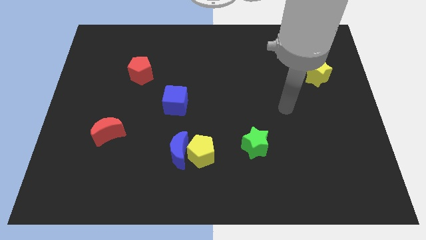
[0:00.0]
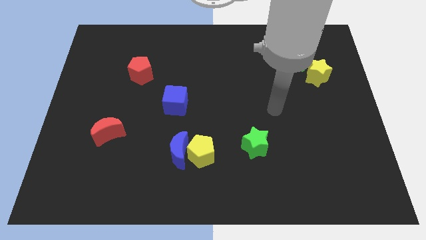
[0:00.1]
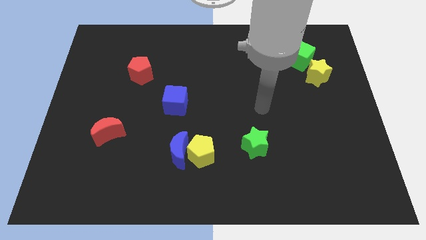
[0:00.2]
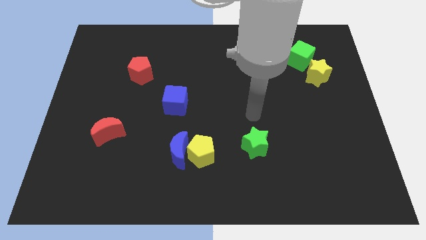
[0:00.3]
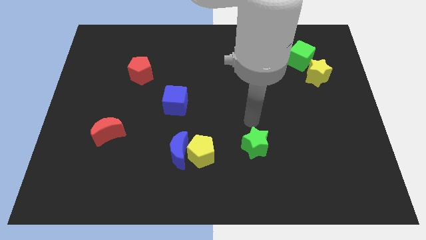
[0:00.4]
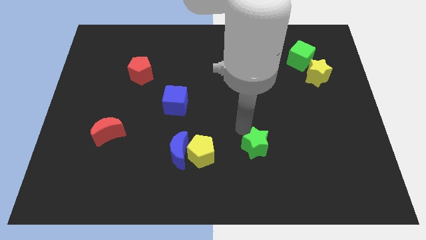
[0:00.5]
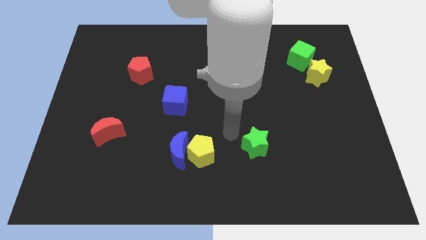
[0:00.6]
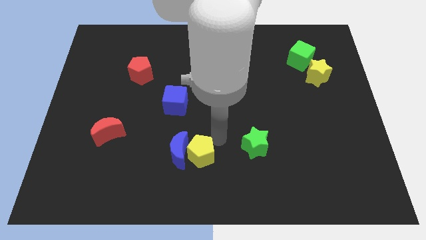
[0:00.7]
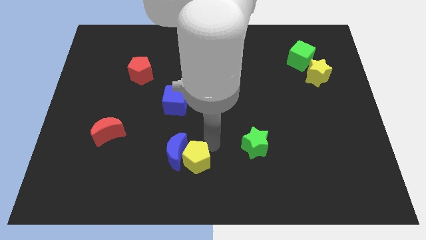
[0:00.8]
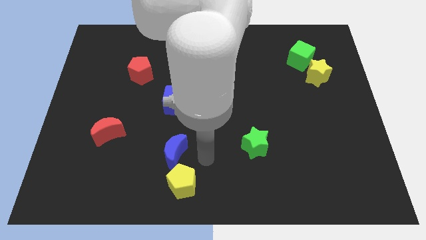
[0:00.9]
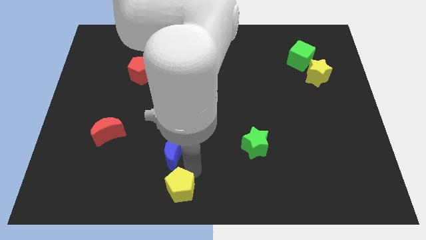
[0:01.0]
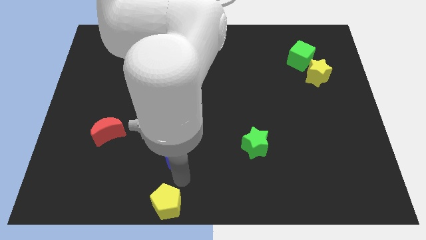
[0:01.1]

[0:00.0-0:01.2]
move the blue moon away from the yellow pentagon

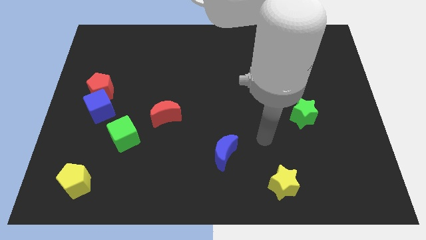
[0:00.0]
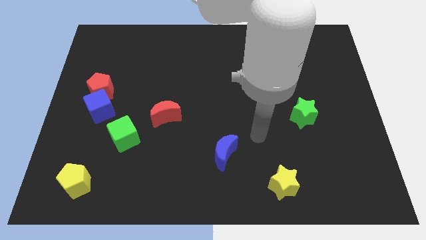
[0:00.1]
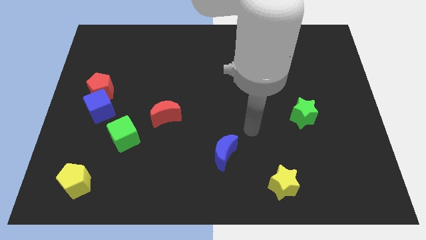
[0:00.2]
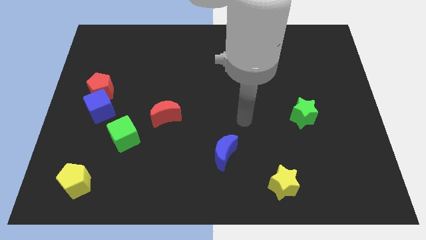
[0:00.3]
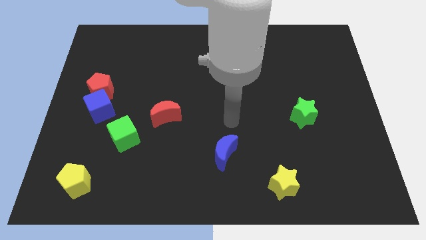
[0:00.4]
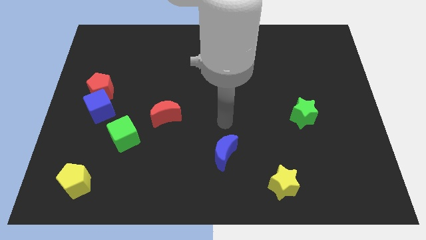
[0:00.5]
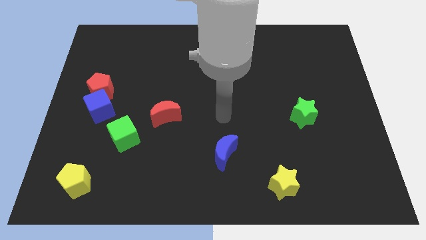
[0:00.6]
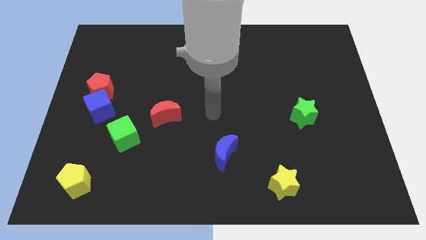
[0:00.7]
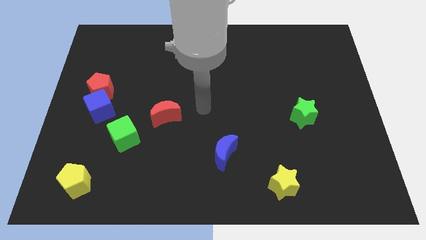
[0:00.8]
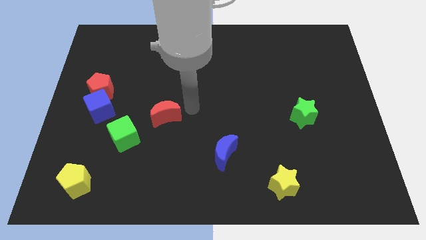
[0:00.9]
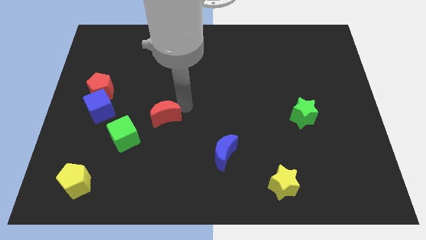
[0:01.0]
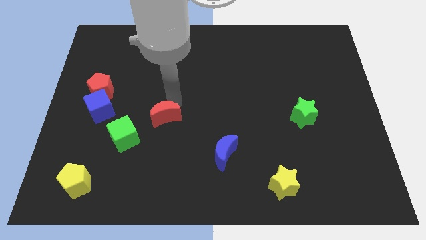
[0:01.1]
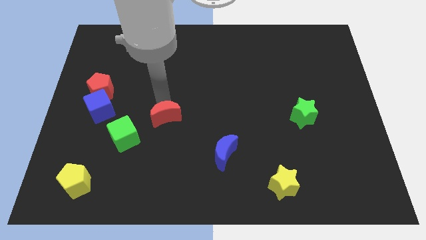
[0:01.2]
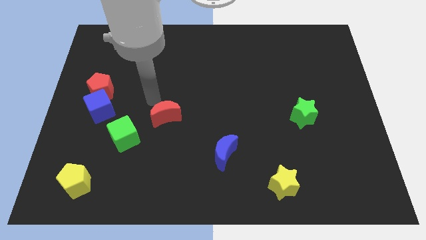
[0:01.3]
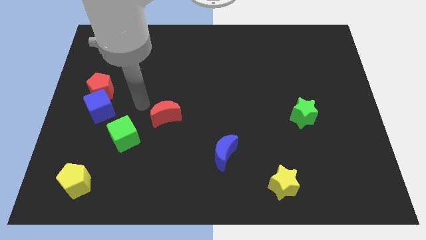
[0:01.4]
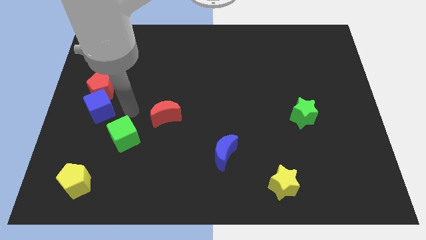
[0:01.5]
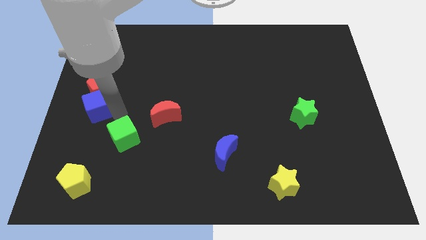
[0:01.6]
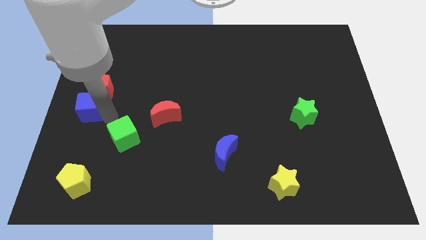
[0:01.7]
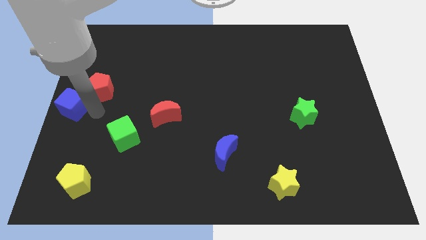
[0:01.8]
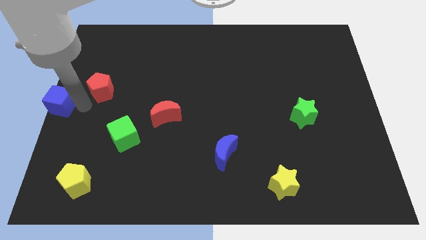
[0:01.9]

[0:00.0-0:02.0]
pull the red pentagon apart from the blue cube

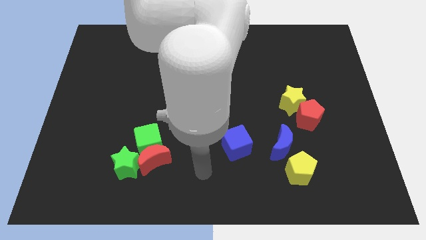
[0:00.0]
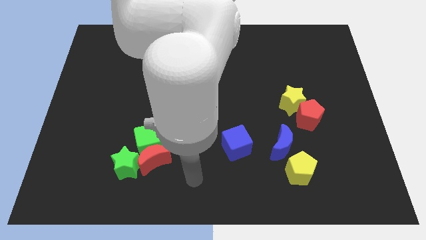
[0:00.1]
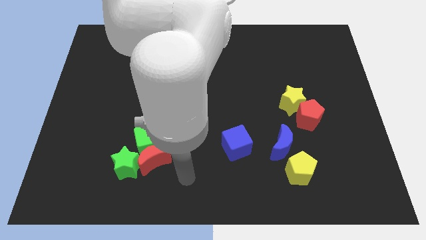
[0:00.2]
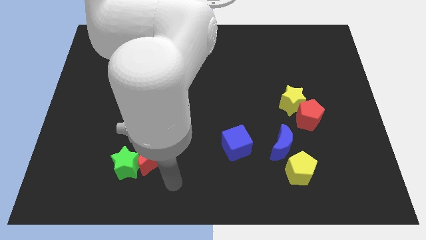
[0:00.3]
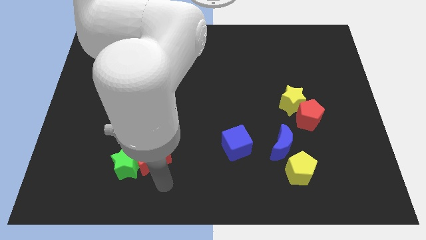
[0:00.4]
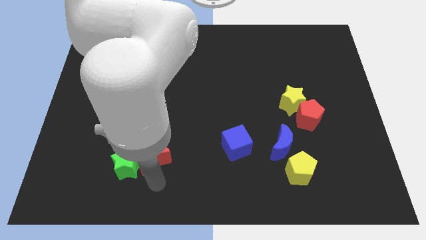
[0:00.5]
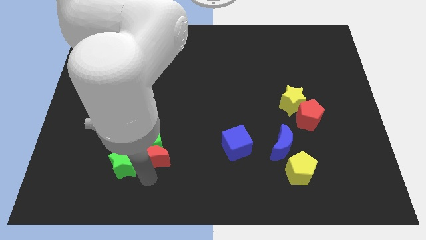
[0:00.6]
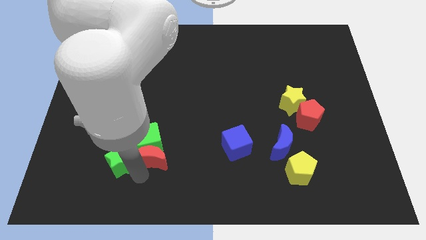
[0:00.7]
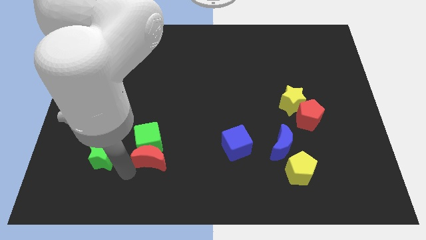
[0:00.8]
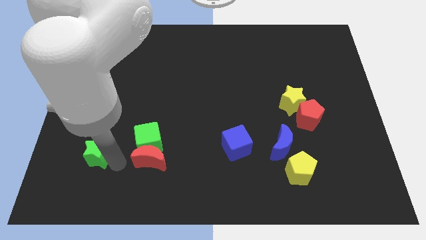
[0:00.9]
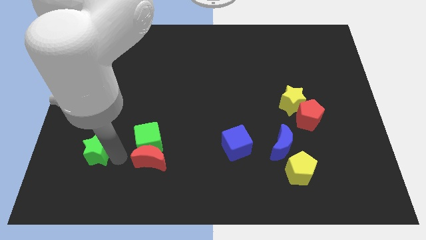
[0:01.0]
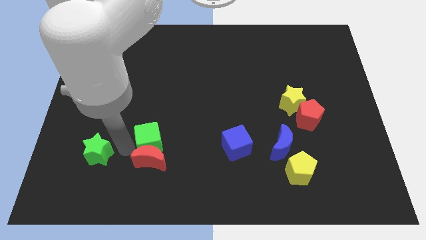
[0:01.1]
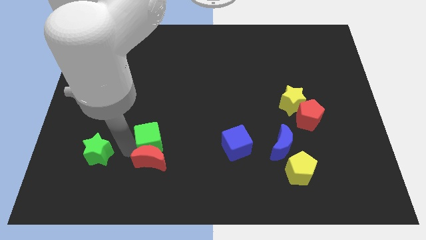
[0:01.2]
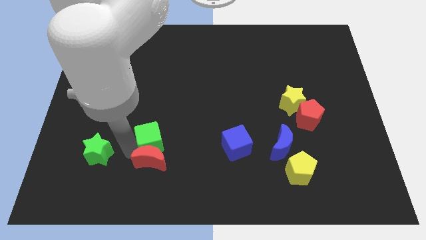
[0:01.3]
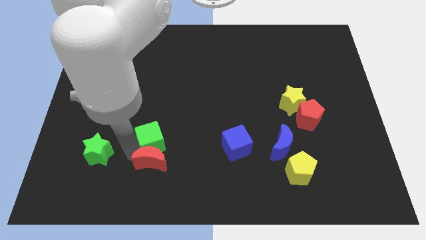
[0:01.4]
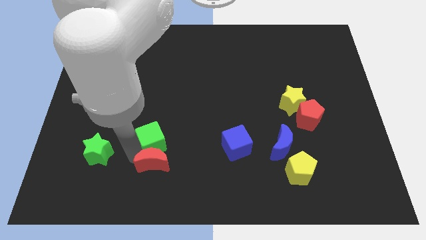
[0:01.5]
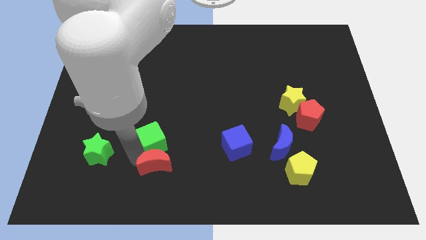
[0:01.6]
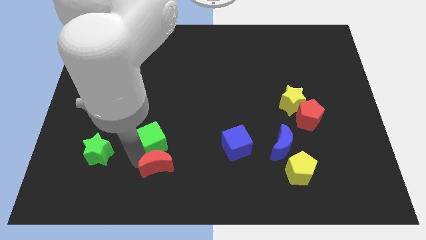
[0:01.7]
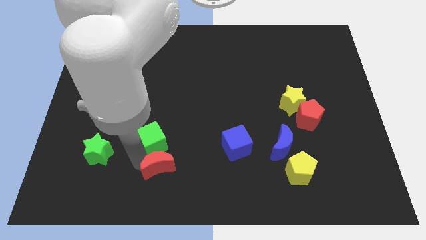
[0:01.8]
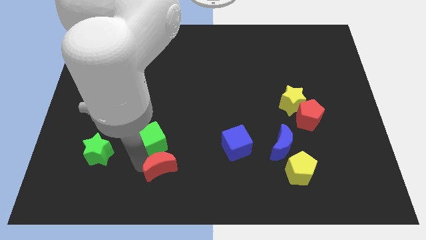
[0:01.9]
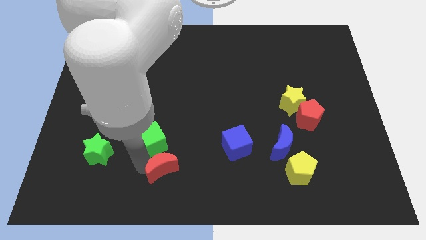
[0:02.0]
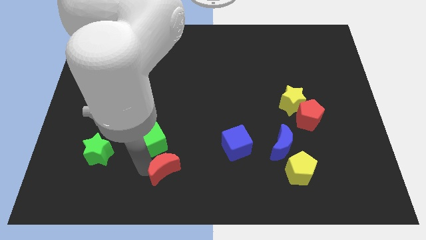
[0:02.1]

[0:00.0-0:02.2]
separate the red moon from the green cube and green star

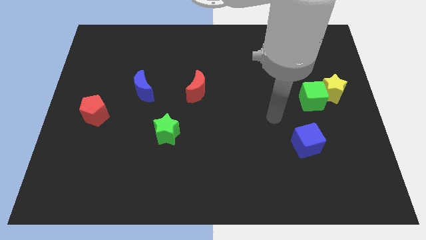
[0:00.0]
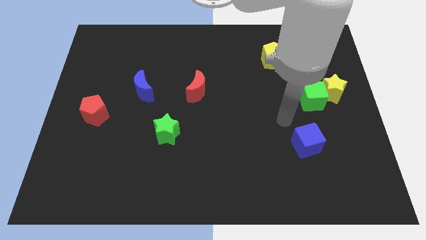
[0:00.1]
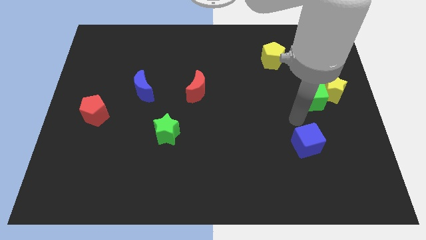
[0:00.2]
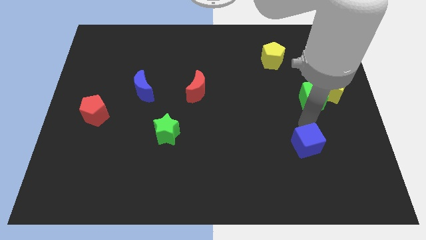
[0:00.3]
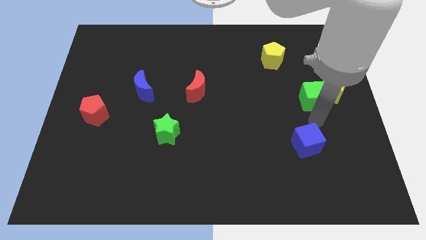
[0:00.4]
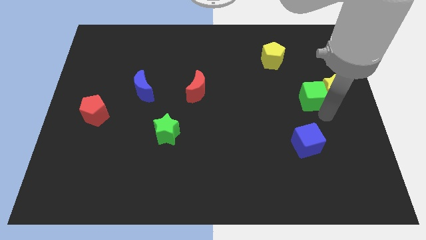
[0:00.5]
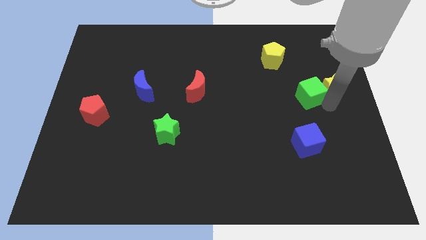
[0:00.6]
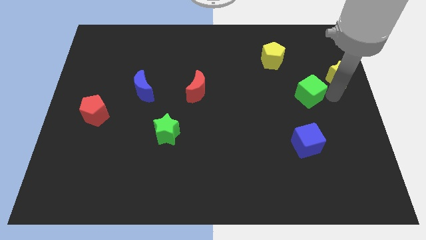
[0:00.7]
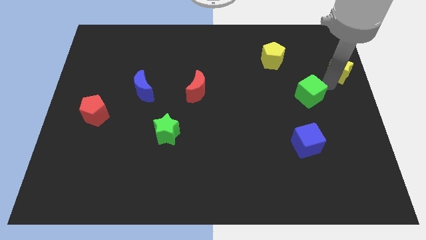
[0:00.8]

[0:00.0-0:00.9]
move the green cube away from the yellow star

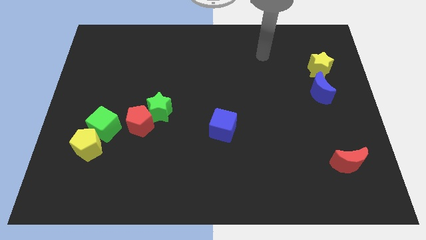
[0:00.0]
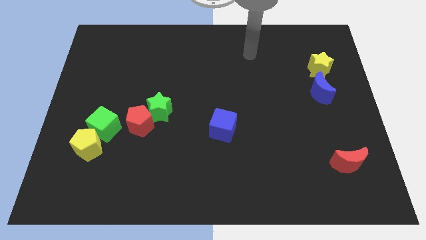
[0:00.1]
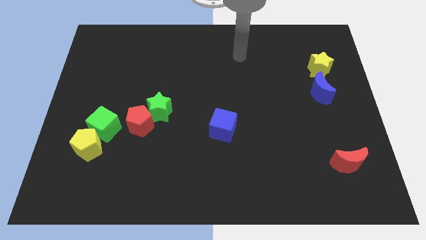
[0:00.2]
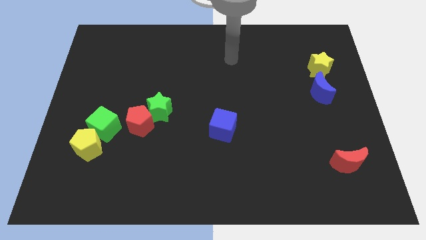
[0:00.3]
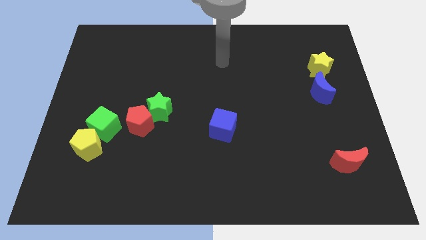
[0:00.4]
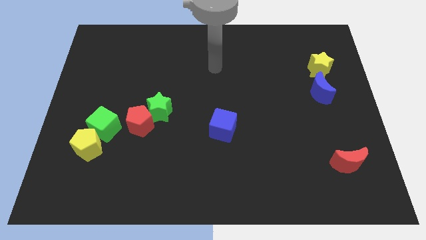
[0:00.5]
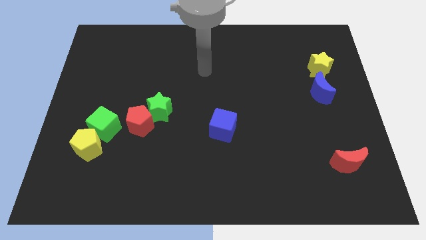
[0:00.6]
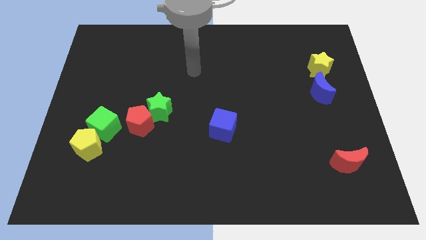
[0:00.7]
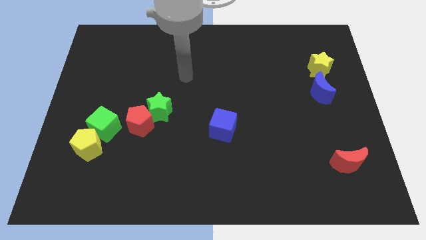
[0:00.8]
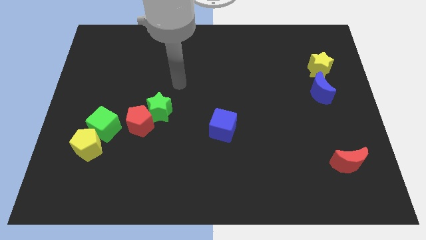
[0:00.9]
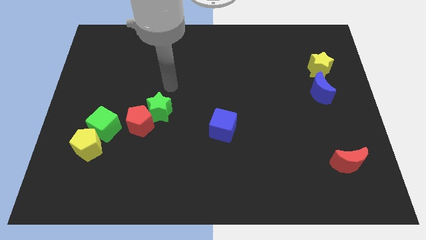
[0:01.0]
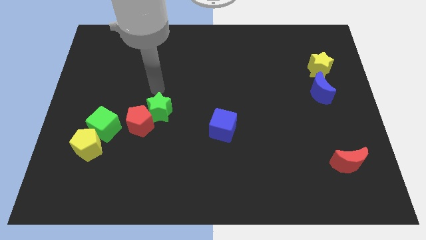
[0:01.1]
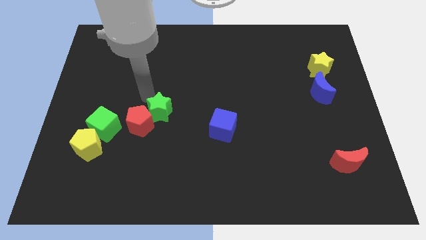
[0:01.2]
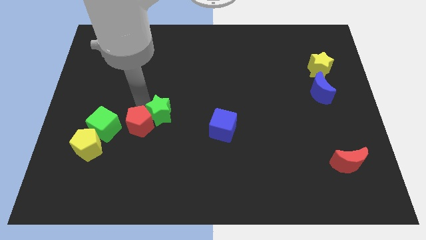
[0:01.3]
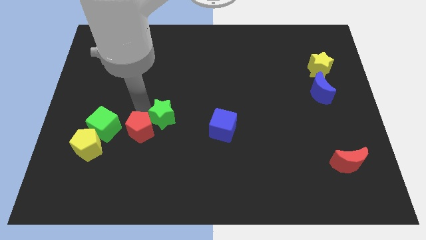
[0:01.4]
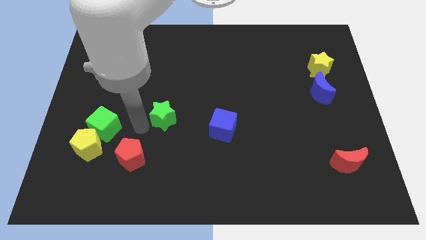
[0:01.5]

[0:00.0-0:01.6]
move the green star away from the red pentagon

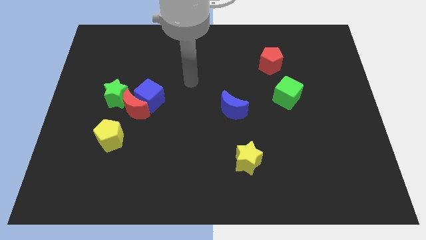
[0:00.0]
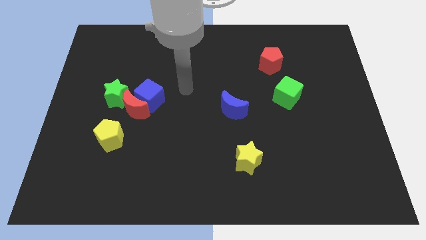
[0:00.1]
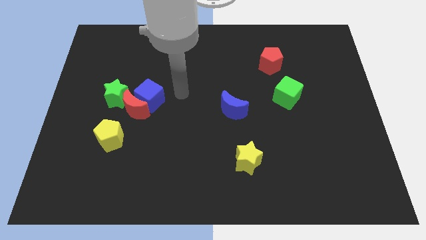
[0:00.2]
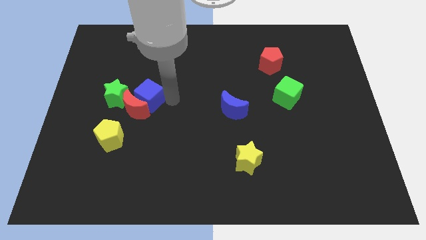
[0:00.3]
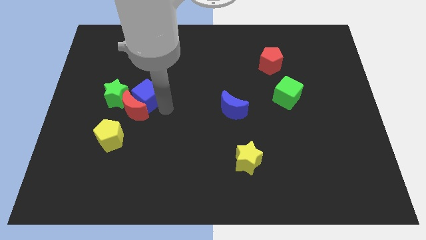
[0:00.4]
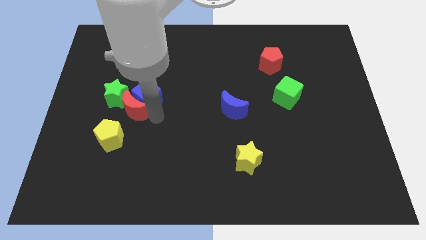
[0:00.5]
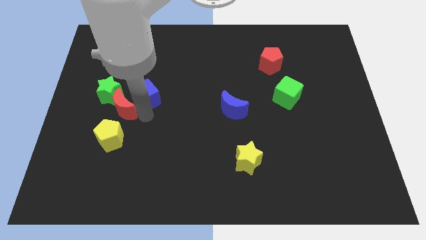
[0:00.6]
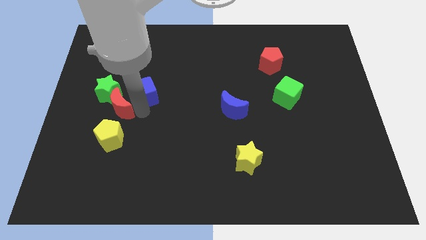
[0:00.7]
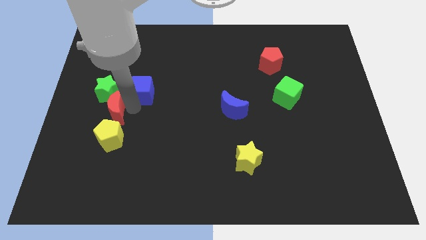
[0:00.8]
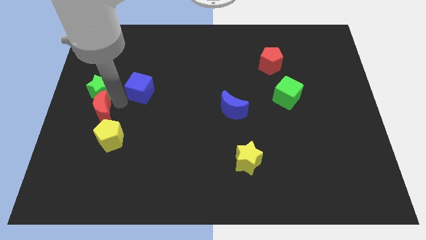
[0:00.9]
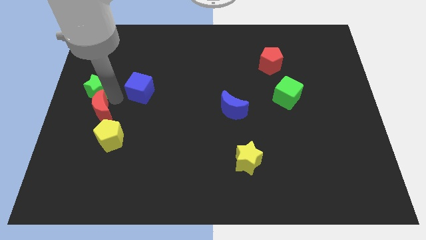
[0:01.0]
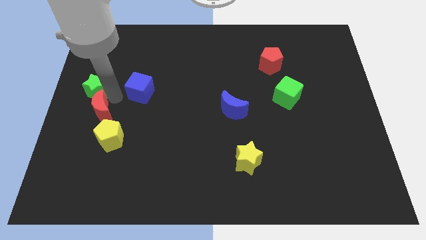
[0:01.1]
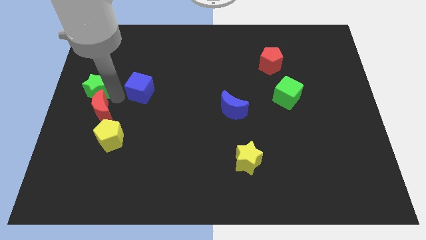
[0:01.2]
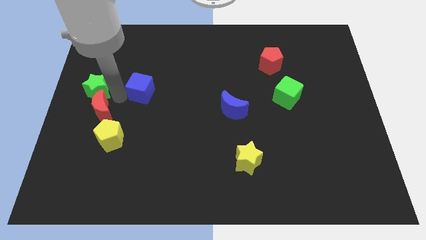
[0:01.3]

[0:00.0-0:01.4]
move the blue cube away from the red moon and green star

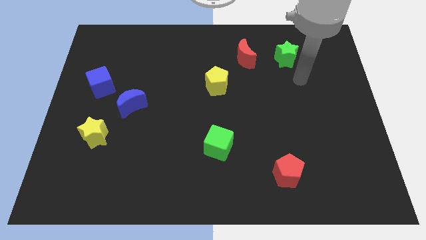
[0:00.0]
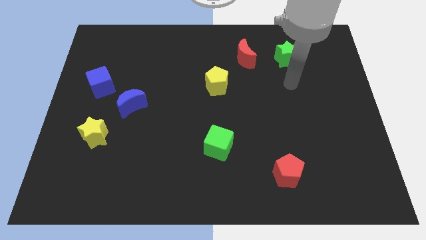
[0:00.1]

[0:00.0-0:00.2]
pull the blue moon apart from the blue cube
